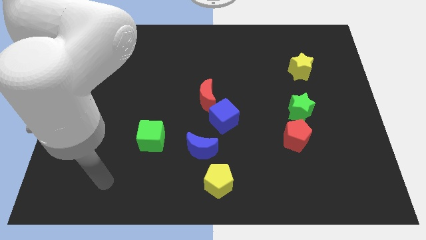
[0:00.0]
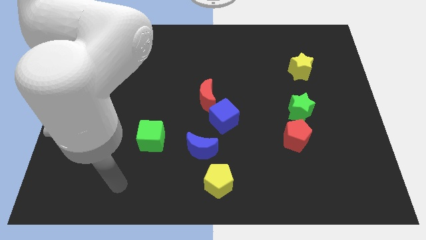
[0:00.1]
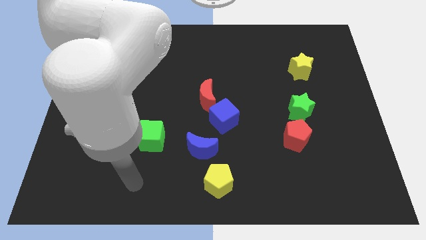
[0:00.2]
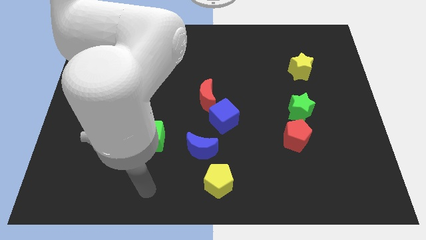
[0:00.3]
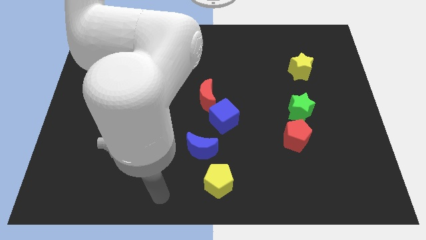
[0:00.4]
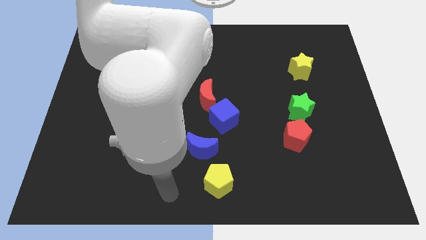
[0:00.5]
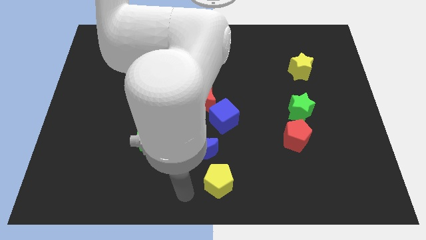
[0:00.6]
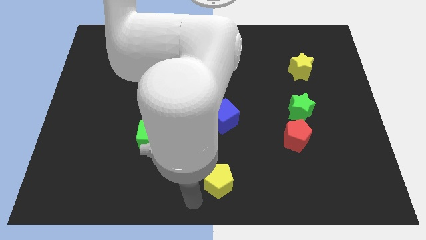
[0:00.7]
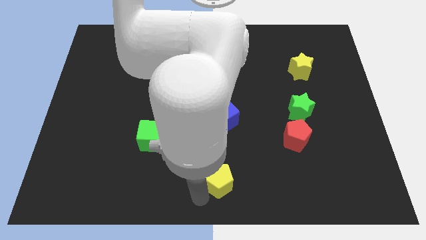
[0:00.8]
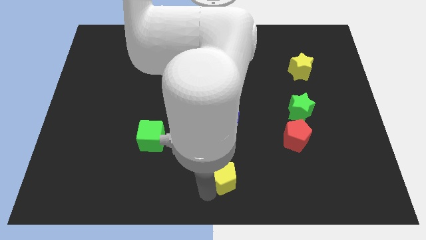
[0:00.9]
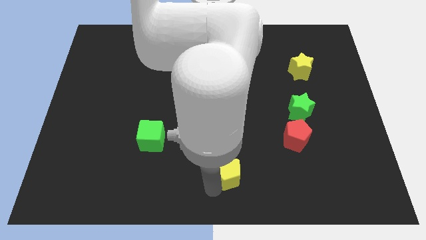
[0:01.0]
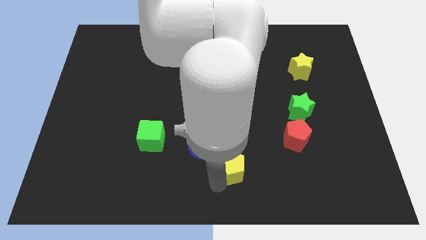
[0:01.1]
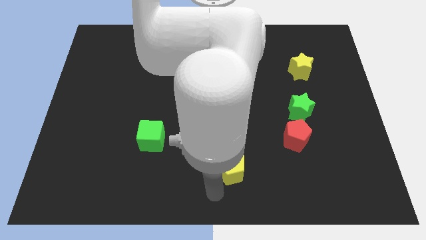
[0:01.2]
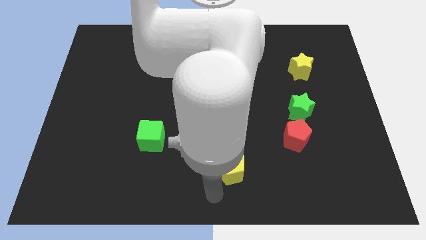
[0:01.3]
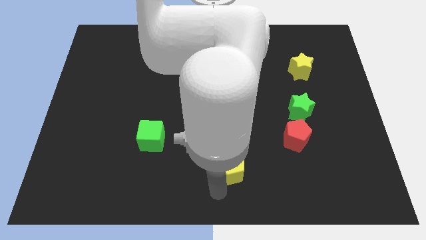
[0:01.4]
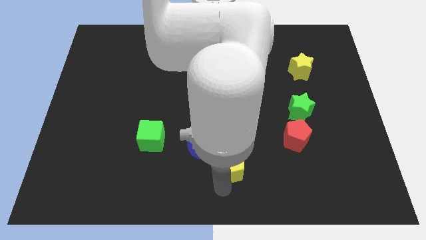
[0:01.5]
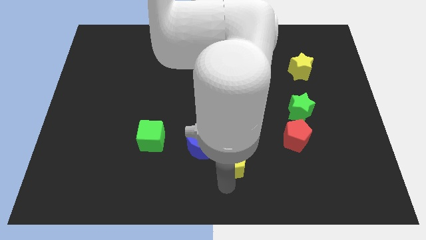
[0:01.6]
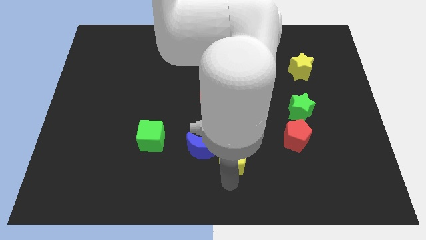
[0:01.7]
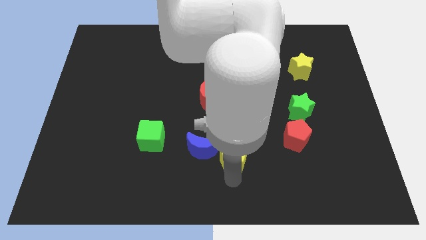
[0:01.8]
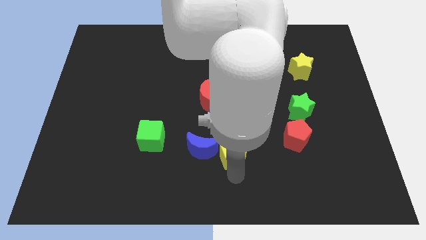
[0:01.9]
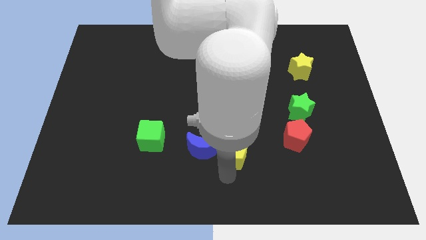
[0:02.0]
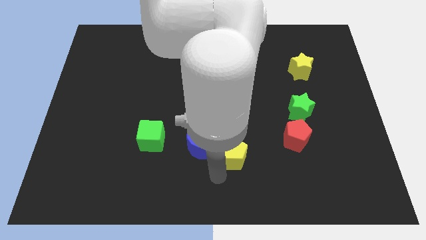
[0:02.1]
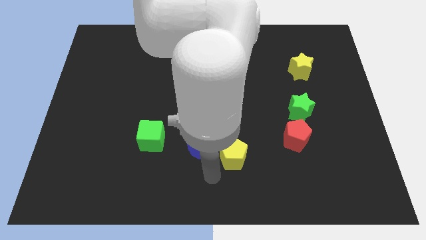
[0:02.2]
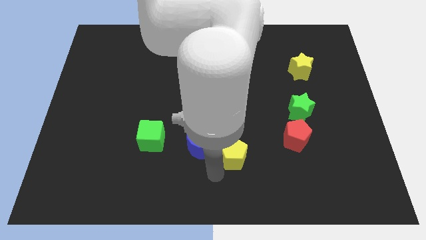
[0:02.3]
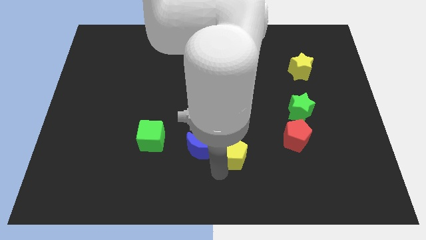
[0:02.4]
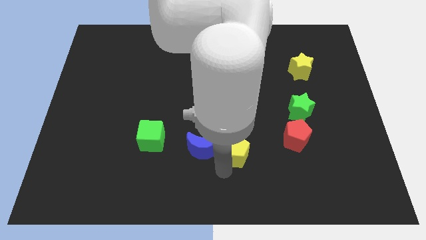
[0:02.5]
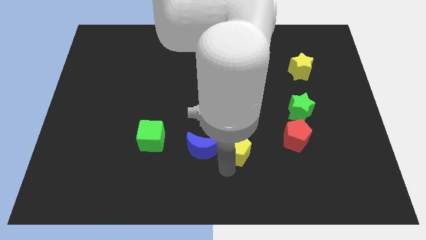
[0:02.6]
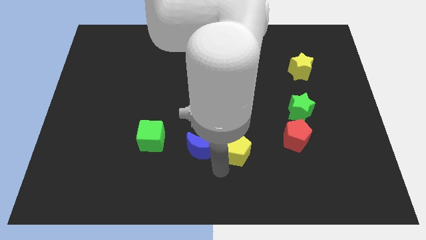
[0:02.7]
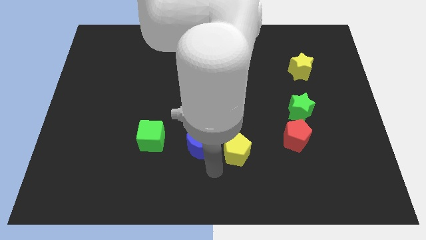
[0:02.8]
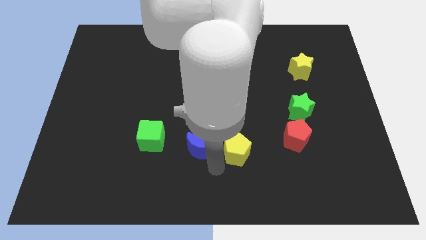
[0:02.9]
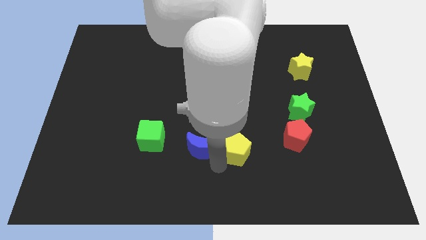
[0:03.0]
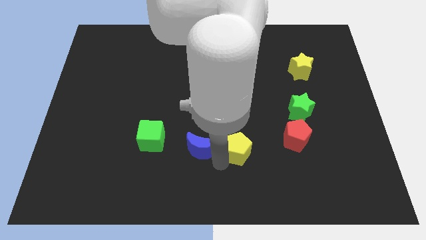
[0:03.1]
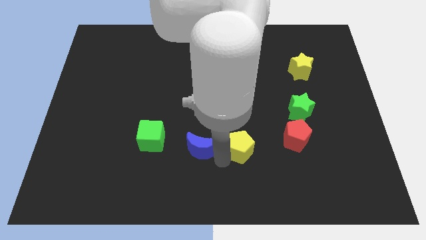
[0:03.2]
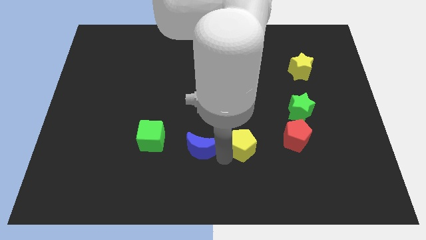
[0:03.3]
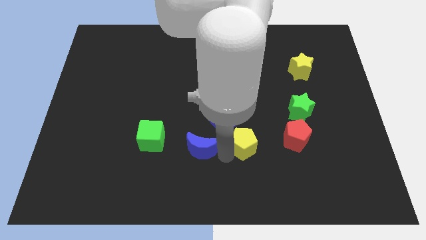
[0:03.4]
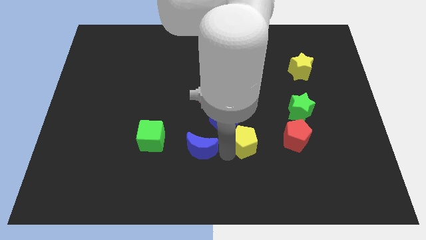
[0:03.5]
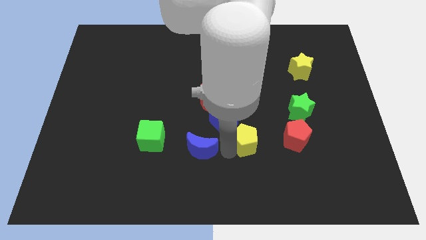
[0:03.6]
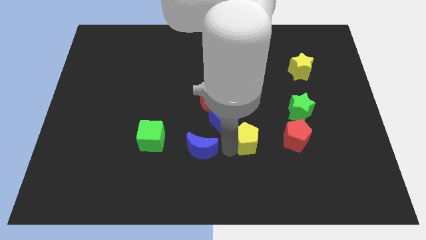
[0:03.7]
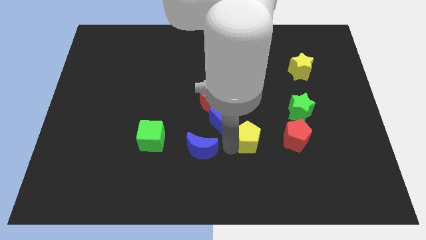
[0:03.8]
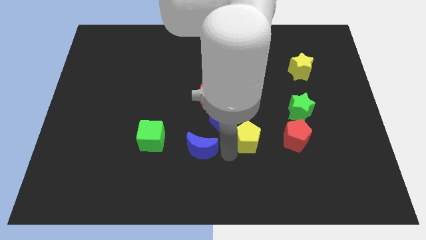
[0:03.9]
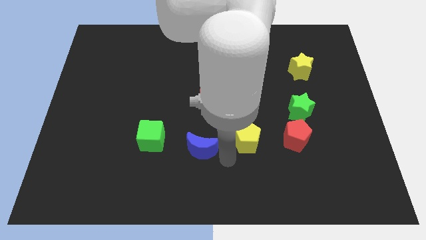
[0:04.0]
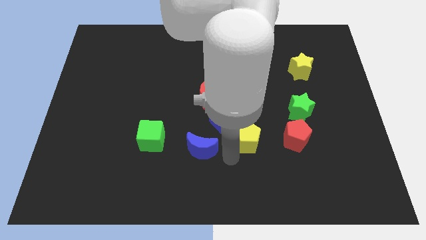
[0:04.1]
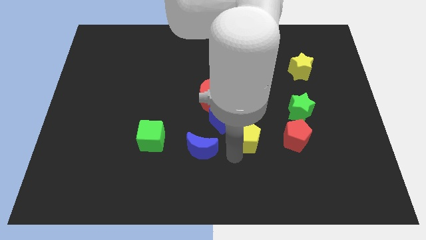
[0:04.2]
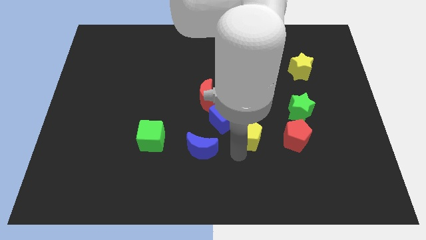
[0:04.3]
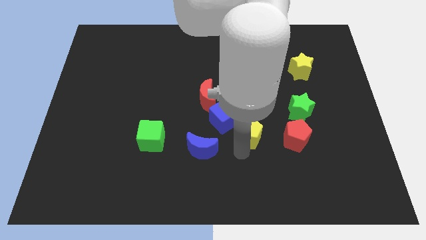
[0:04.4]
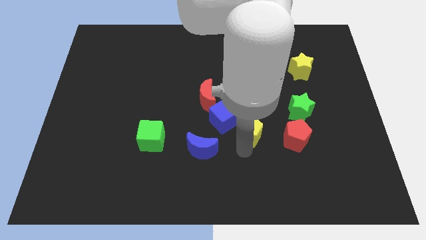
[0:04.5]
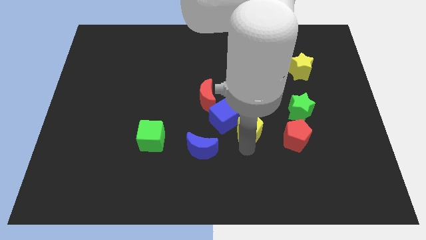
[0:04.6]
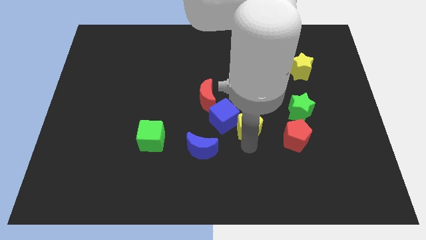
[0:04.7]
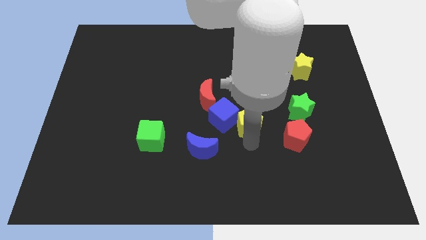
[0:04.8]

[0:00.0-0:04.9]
slide the yellow pentagon diagonally up and to the left of the red pentagon

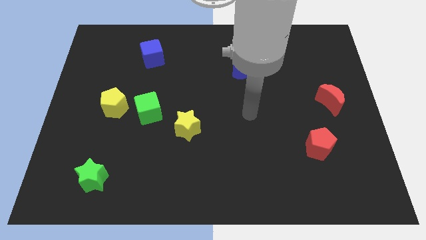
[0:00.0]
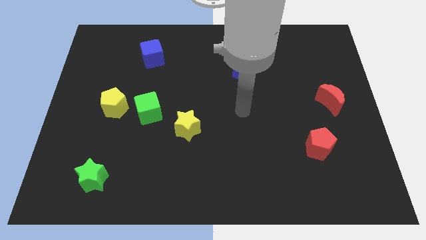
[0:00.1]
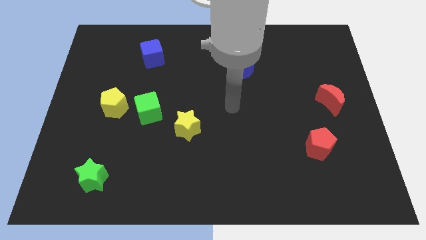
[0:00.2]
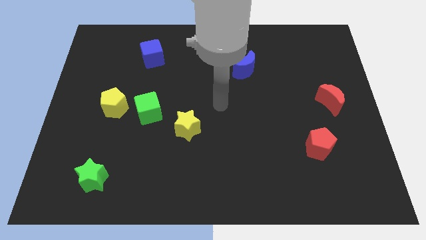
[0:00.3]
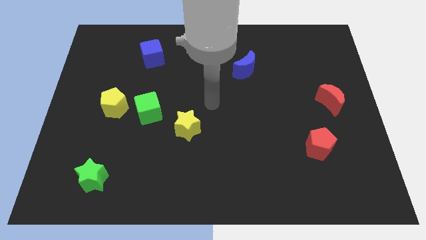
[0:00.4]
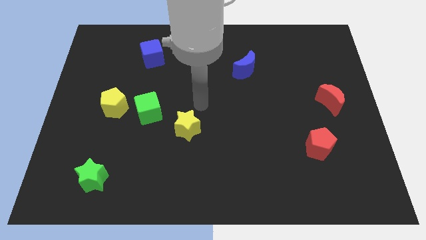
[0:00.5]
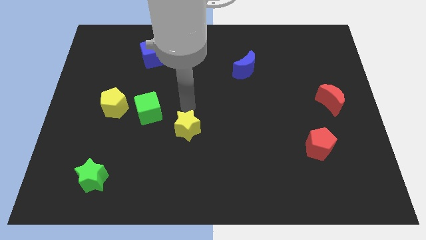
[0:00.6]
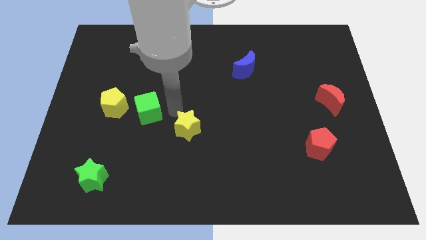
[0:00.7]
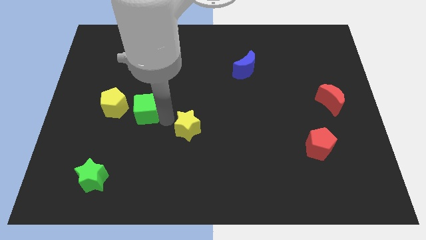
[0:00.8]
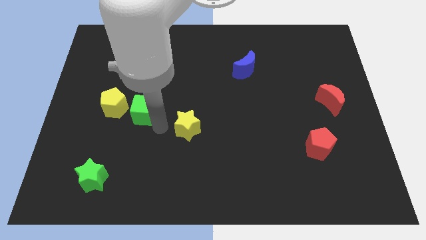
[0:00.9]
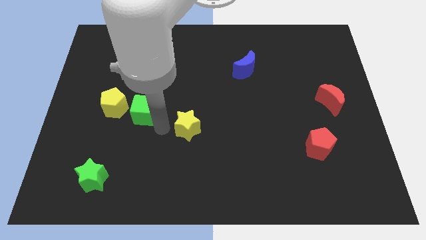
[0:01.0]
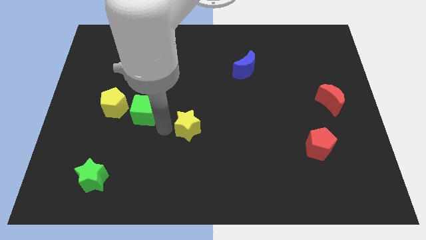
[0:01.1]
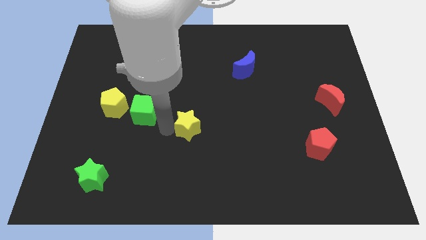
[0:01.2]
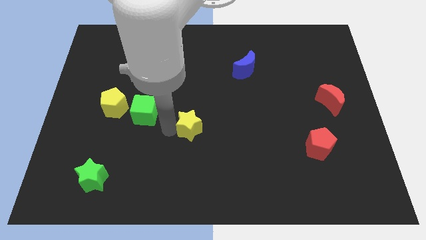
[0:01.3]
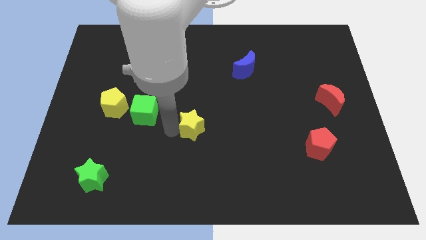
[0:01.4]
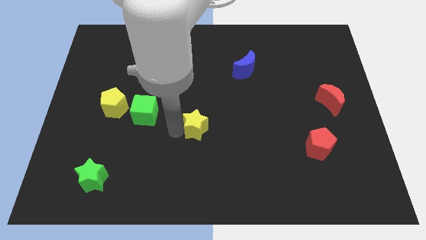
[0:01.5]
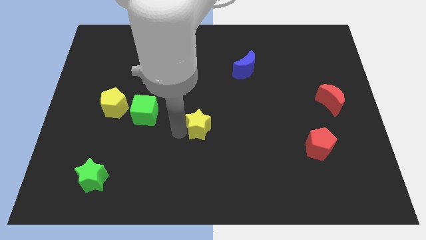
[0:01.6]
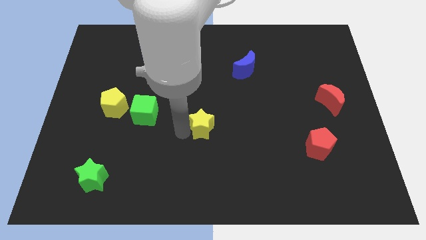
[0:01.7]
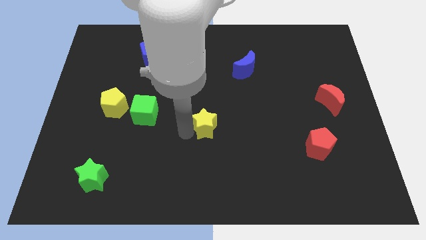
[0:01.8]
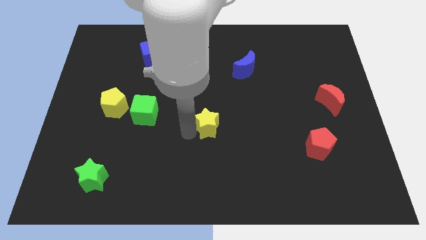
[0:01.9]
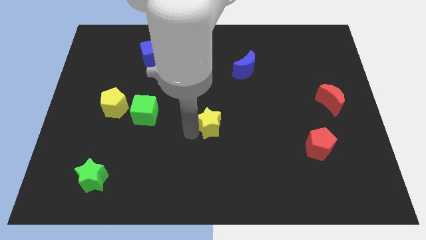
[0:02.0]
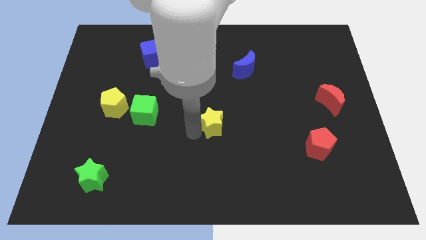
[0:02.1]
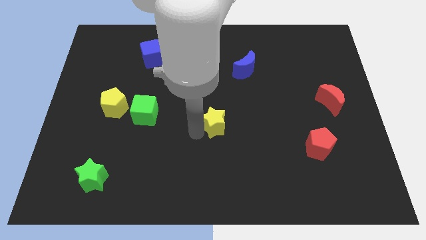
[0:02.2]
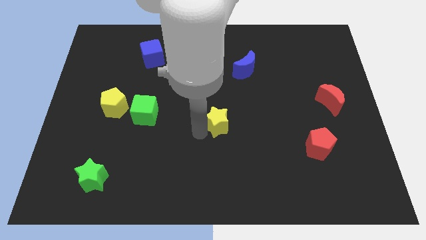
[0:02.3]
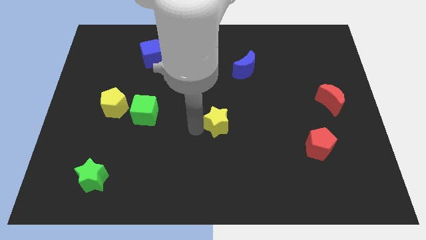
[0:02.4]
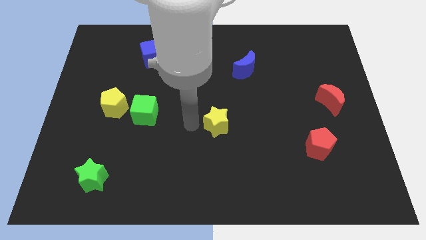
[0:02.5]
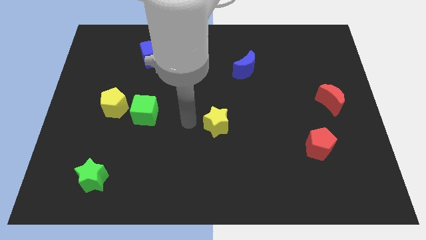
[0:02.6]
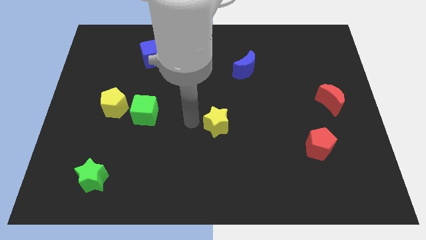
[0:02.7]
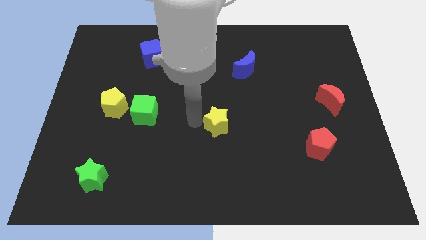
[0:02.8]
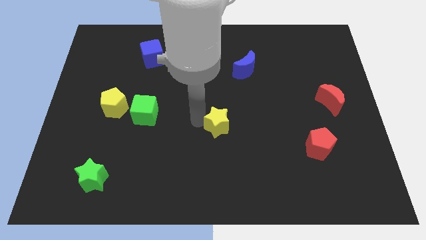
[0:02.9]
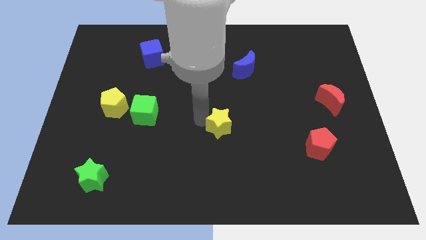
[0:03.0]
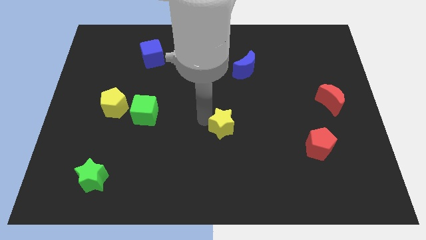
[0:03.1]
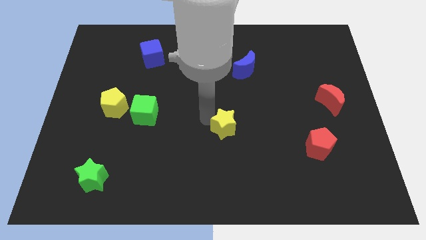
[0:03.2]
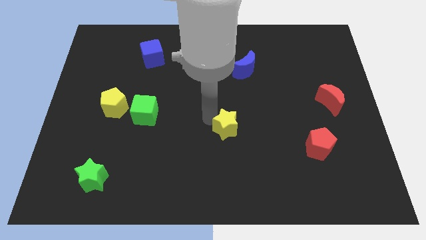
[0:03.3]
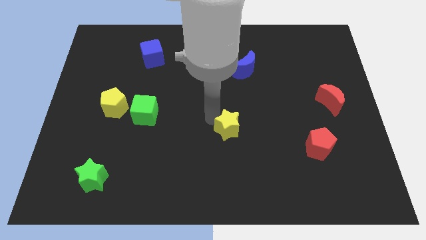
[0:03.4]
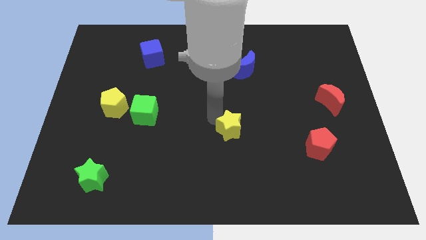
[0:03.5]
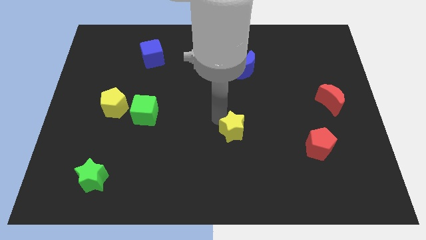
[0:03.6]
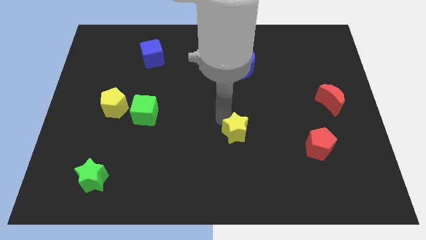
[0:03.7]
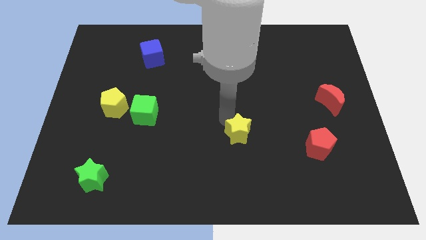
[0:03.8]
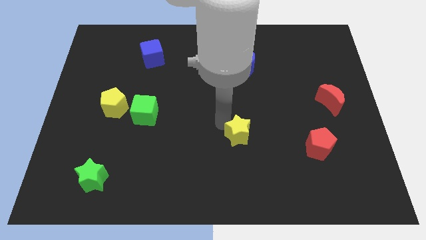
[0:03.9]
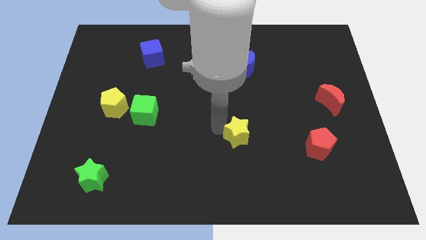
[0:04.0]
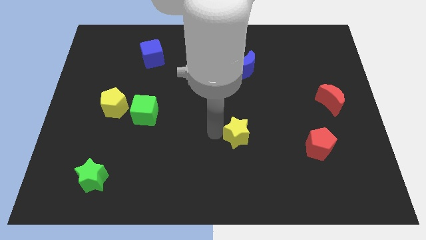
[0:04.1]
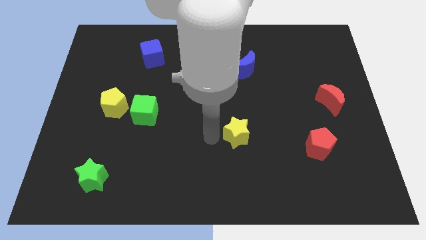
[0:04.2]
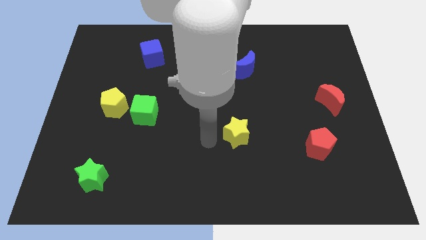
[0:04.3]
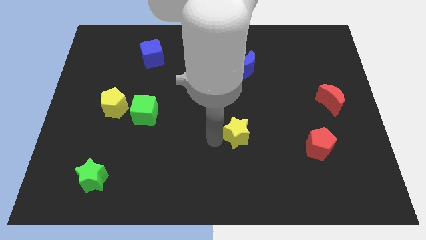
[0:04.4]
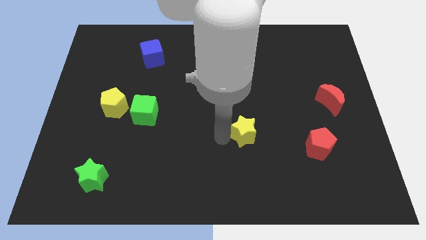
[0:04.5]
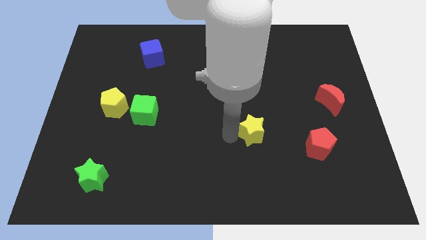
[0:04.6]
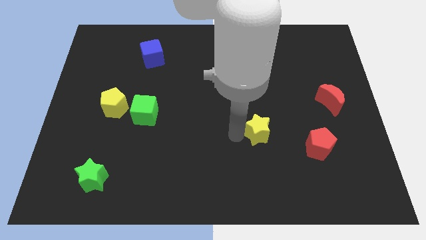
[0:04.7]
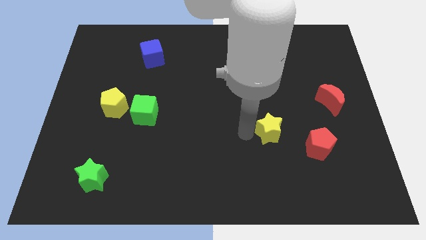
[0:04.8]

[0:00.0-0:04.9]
push the yellow star to the top left of the red pentagon
